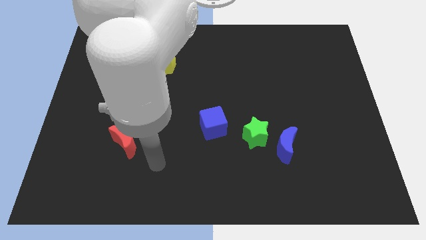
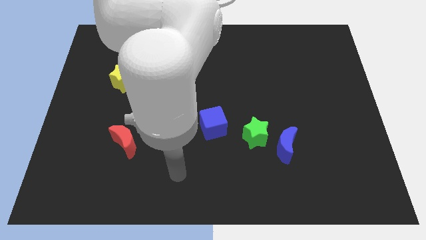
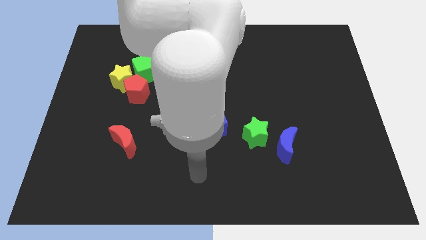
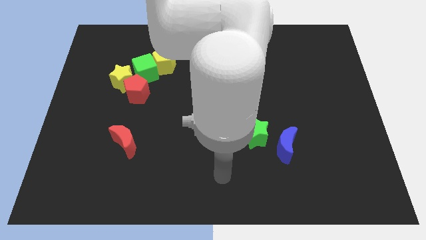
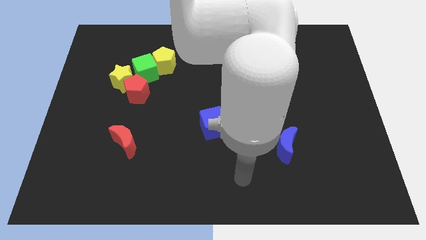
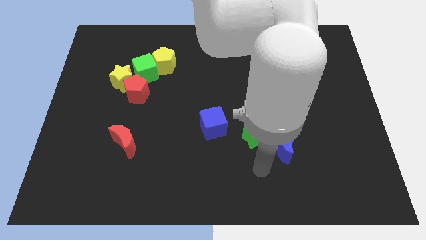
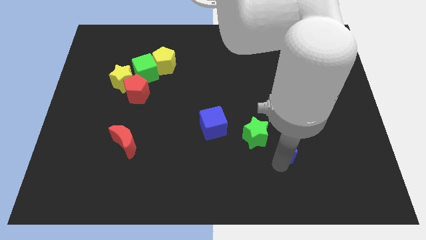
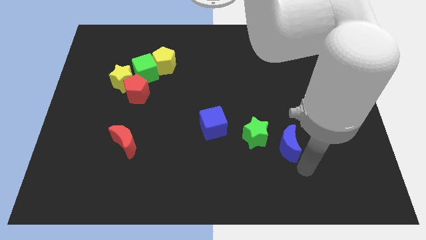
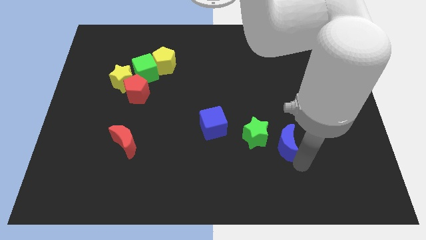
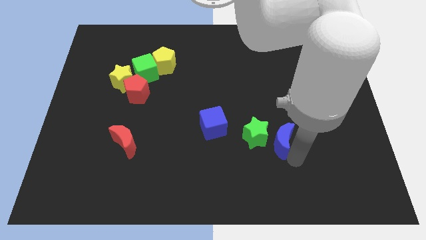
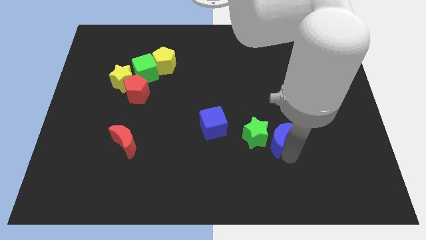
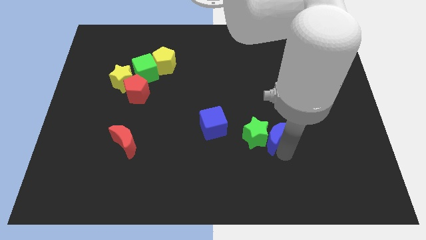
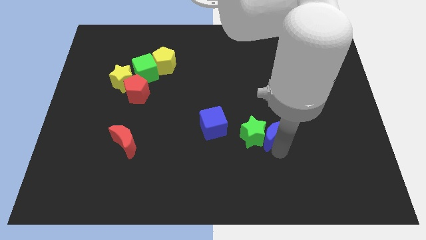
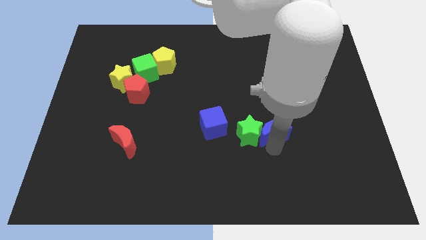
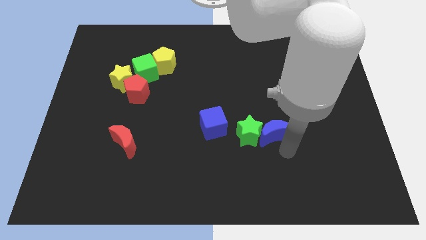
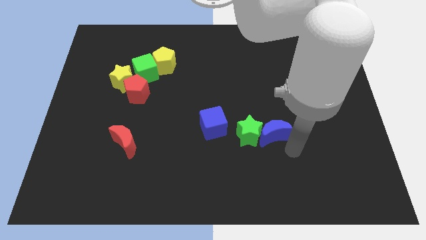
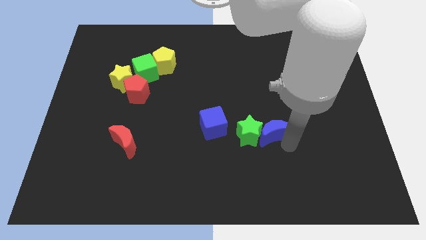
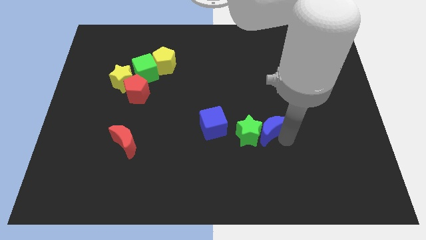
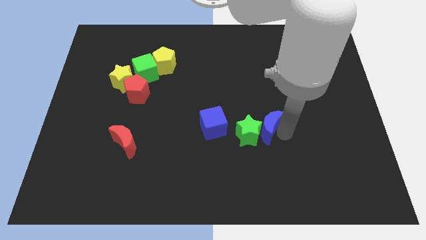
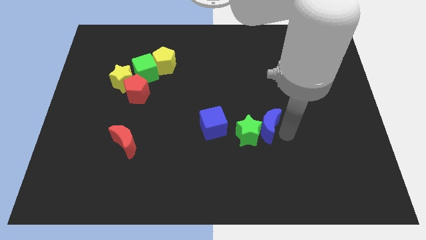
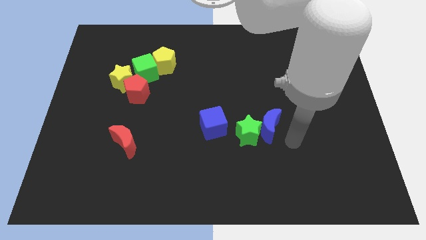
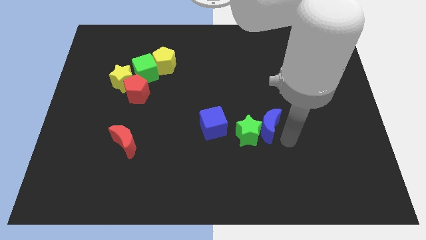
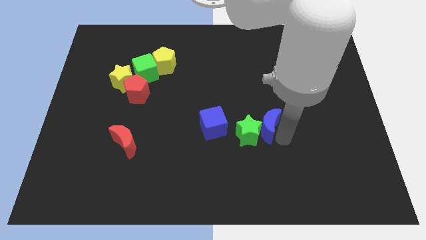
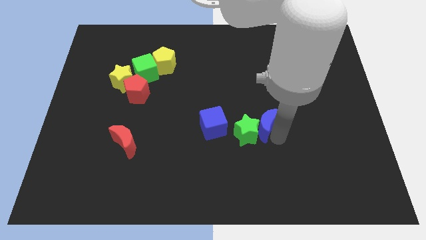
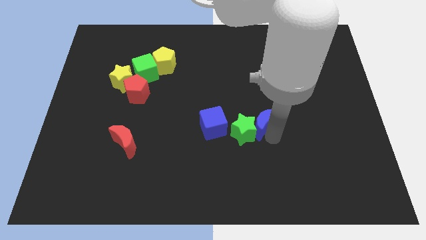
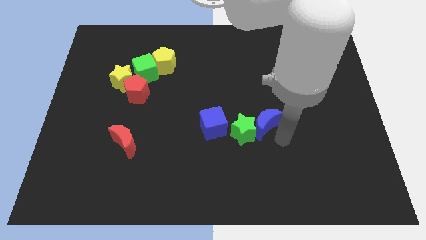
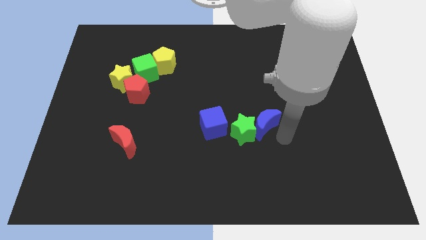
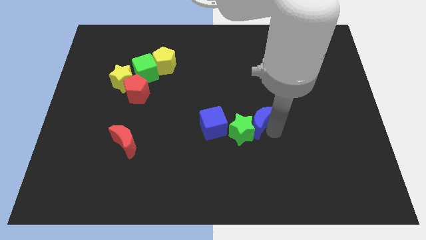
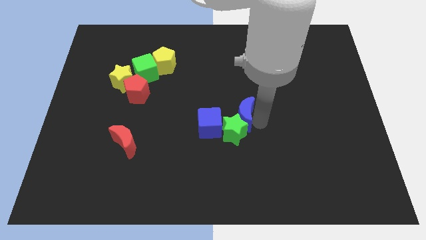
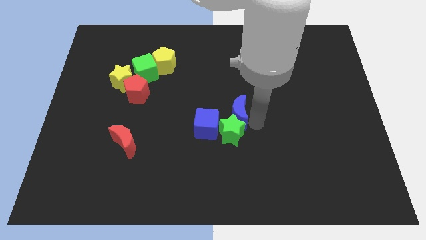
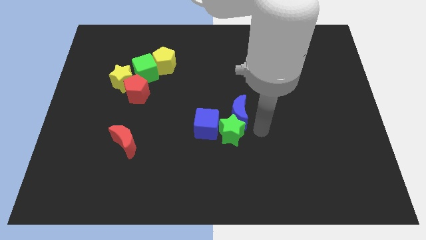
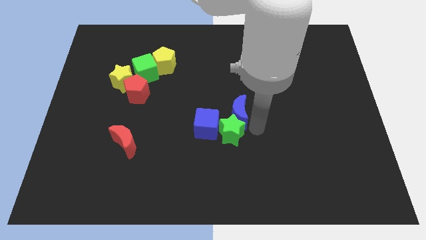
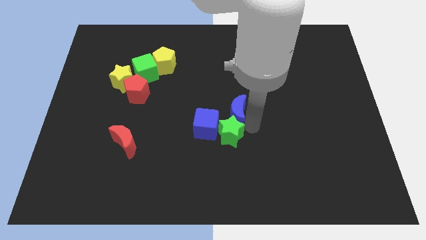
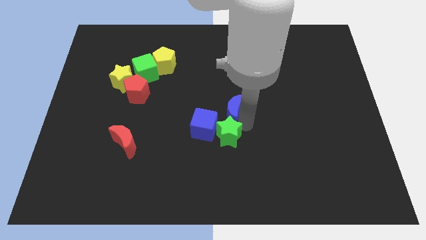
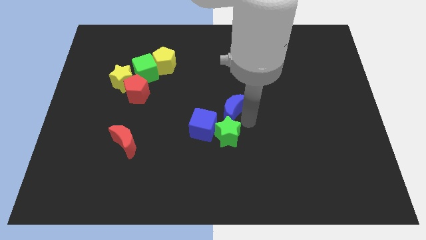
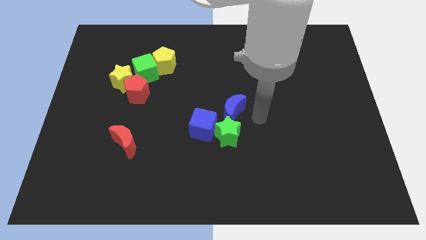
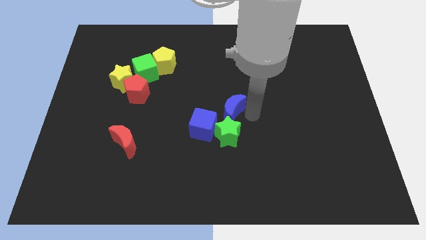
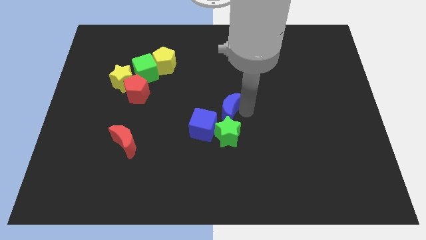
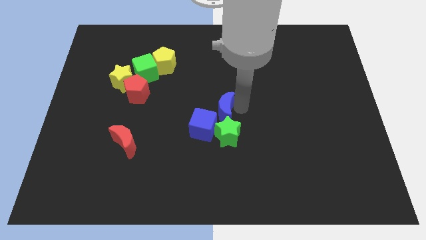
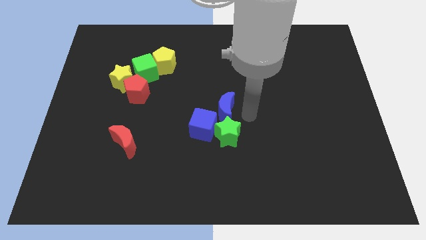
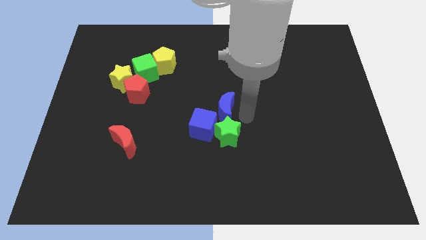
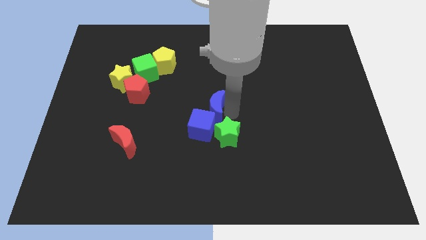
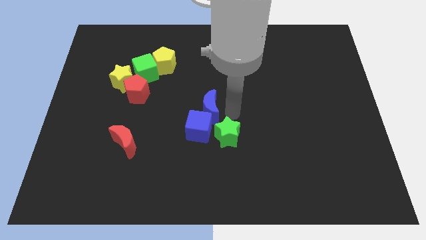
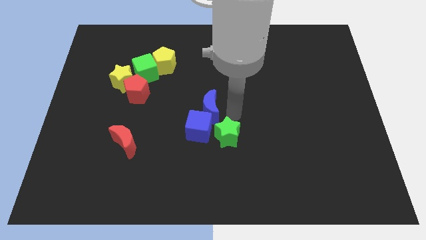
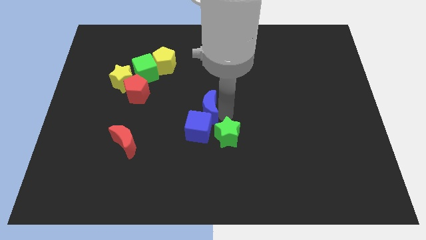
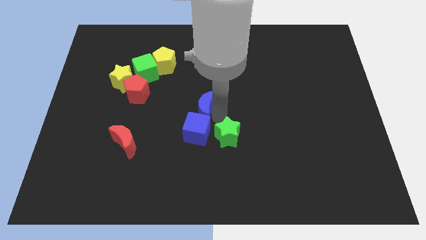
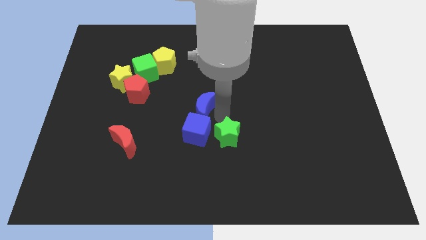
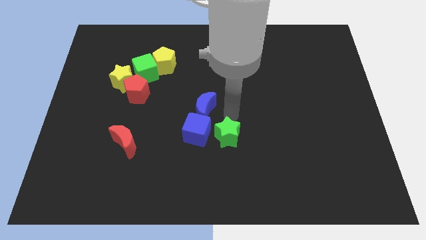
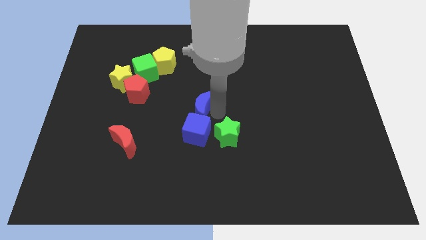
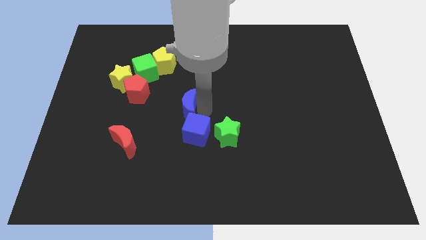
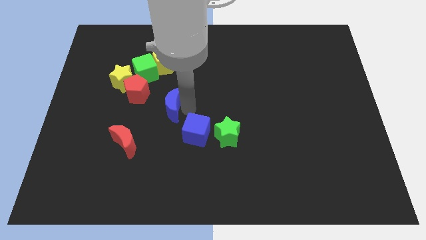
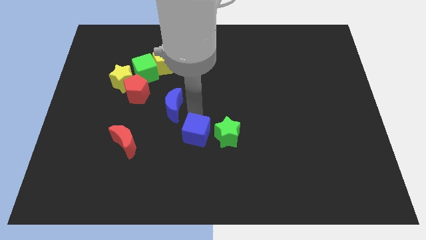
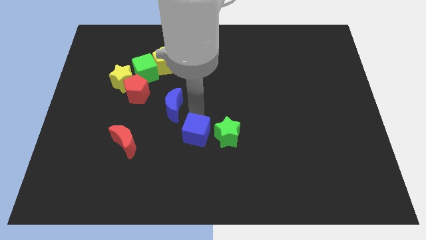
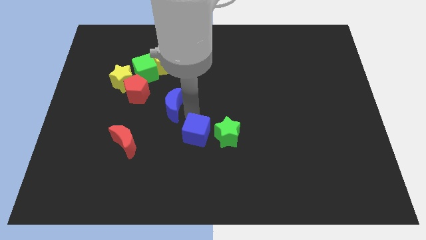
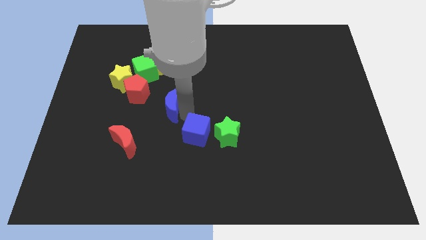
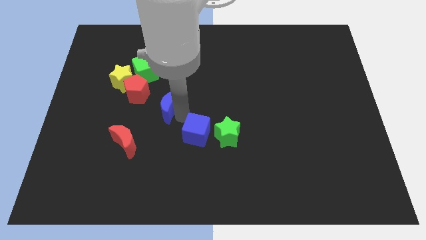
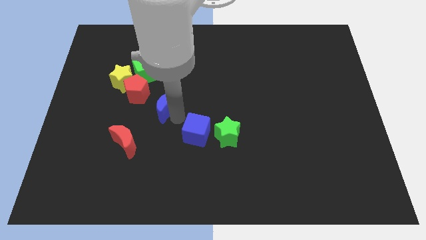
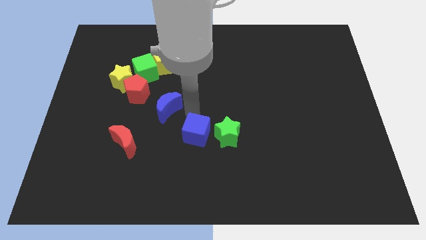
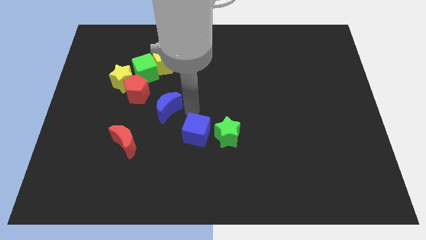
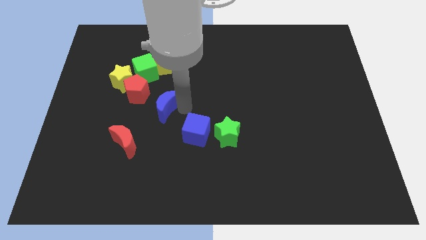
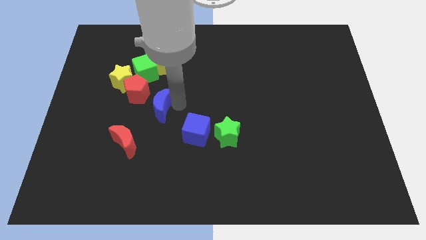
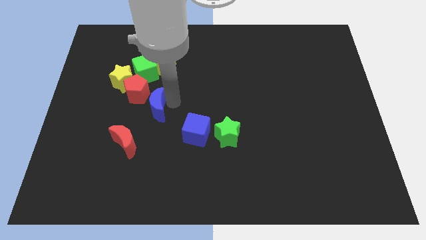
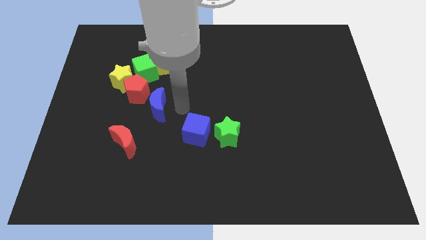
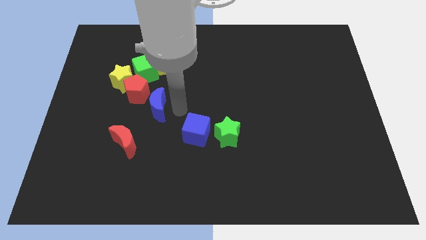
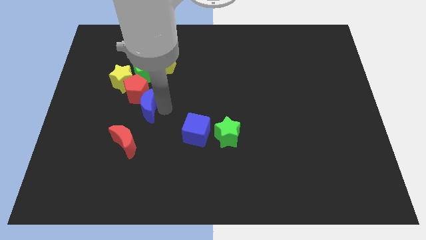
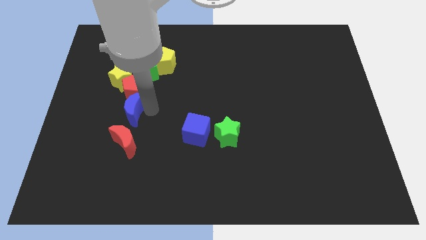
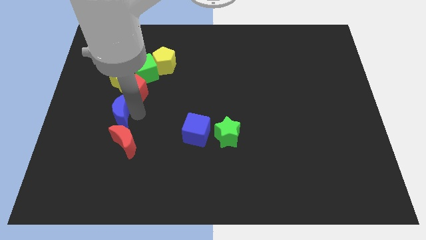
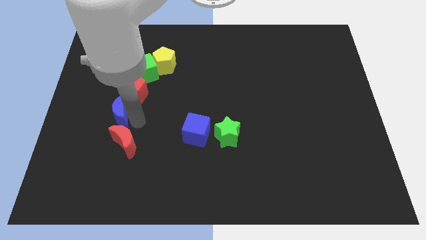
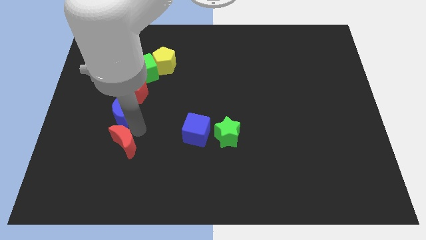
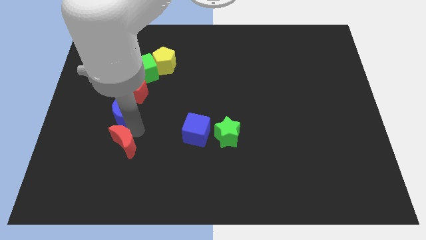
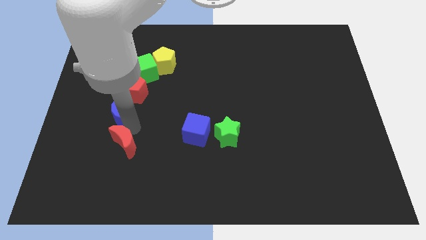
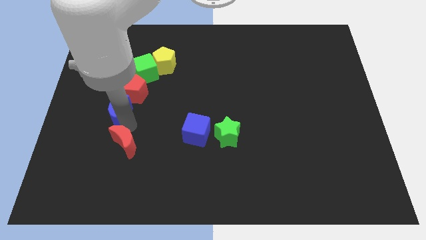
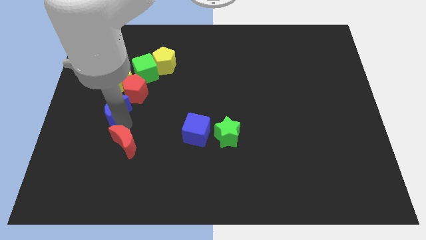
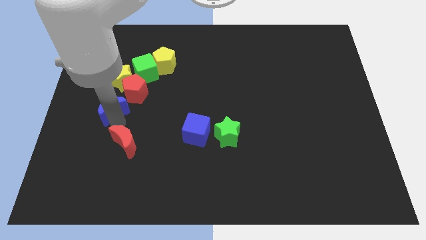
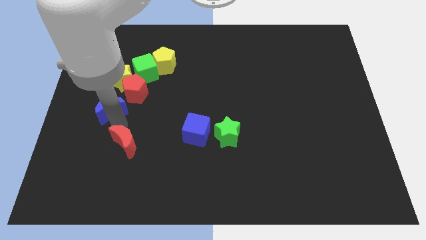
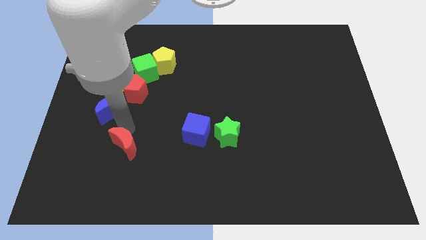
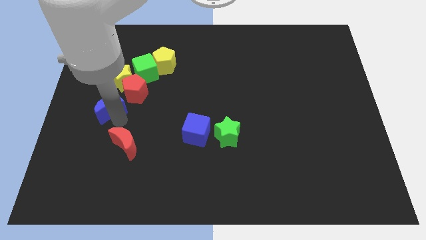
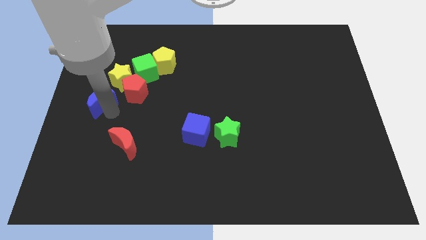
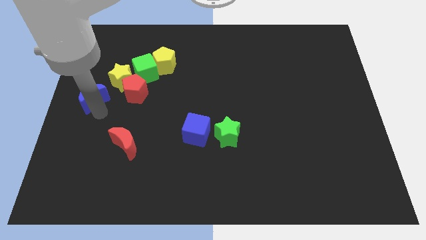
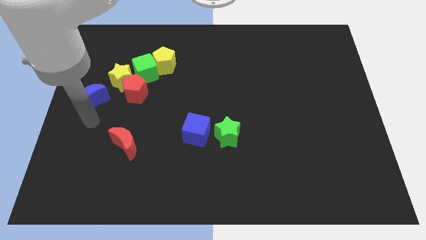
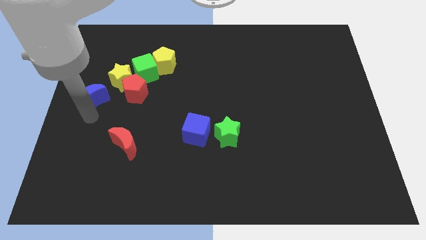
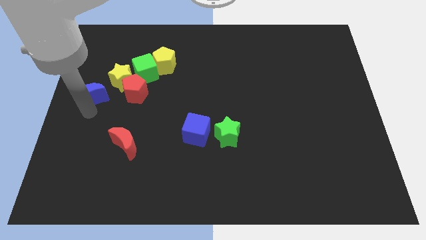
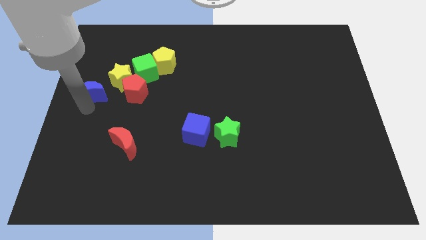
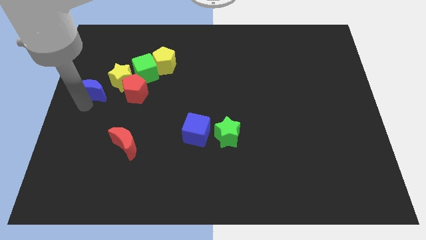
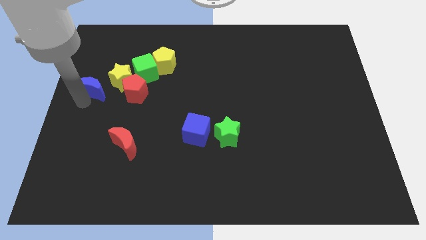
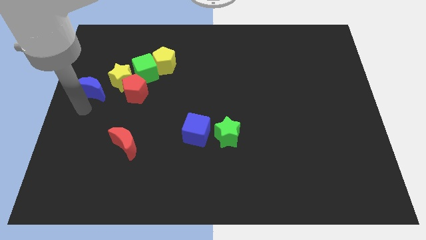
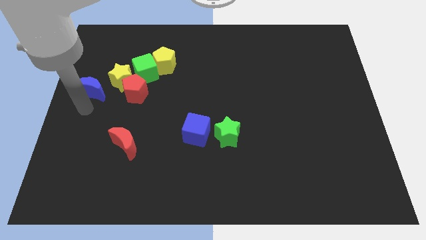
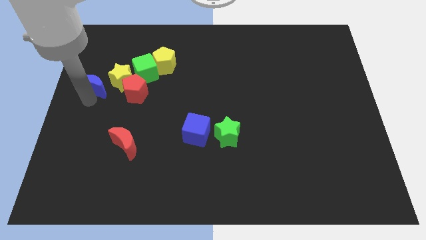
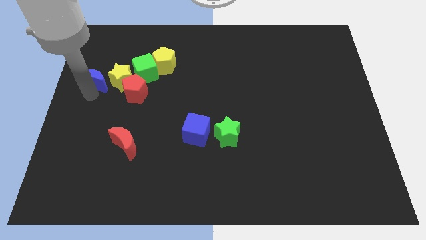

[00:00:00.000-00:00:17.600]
slide the blue moon to the left side of the green cube
